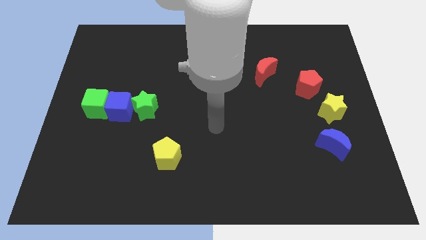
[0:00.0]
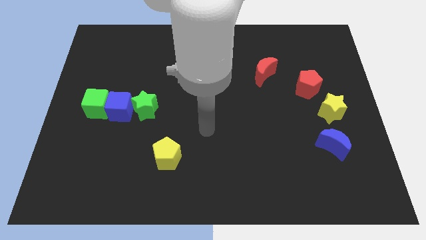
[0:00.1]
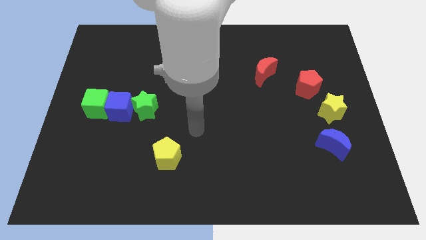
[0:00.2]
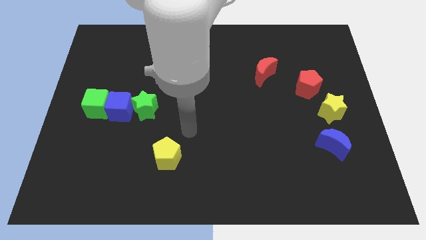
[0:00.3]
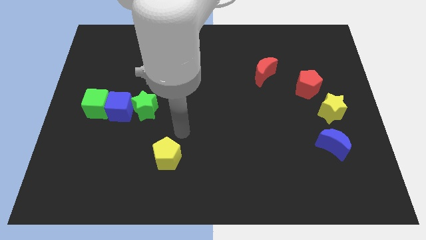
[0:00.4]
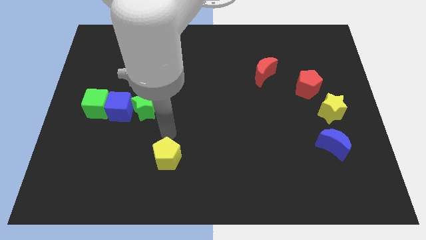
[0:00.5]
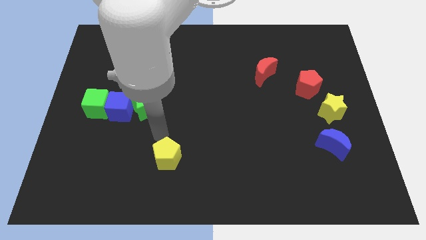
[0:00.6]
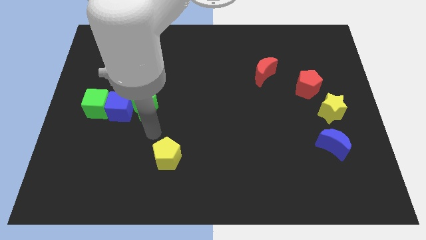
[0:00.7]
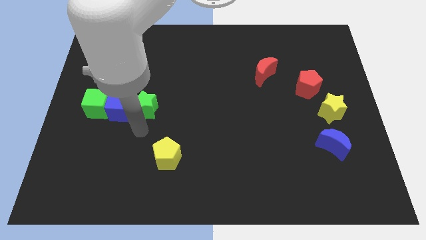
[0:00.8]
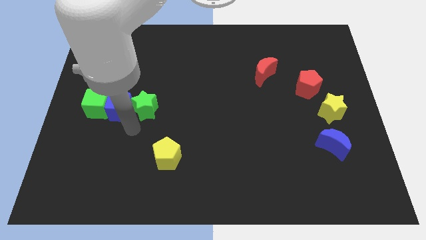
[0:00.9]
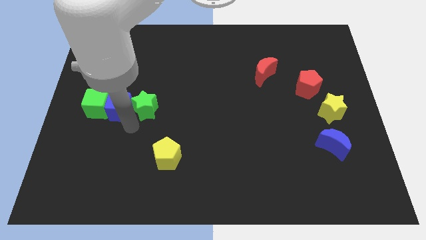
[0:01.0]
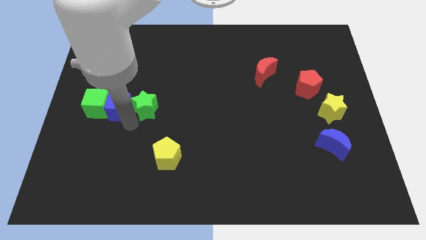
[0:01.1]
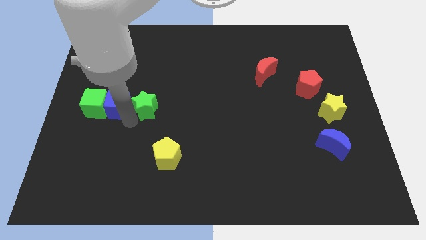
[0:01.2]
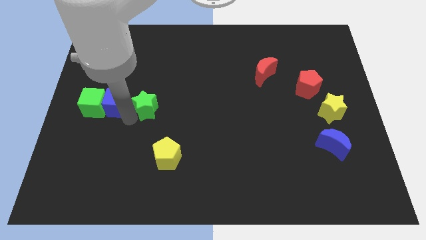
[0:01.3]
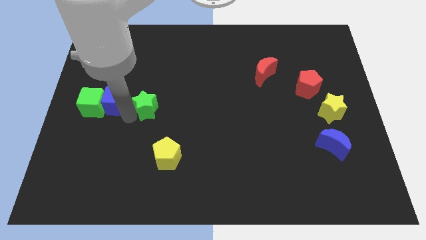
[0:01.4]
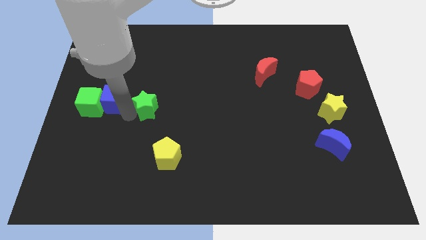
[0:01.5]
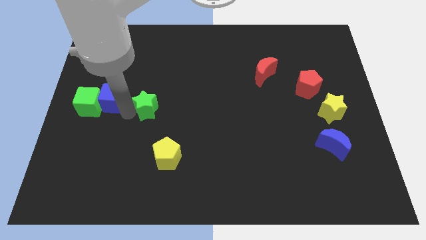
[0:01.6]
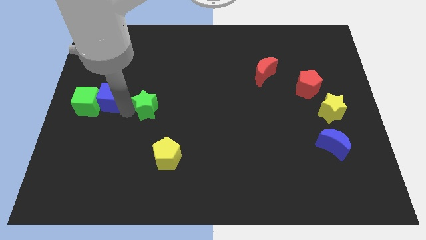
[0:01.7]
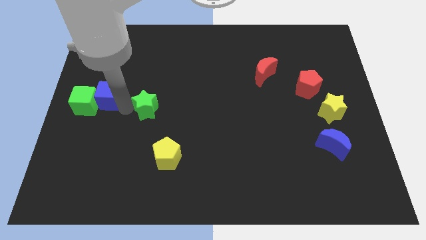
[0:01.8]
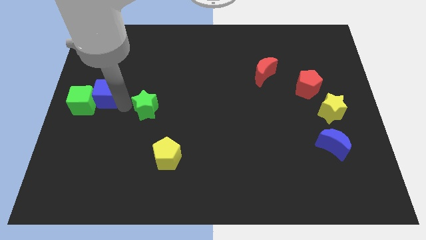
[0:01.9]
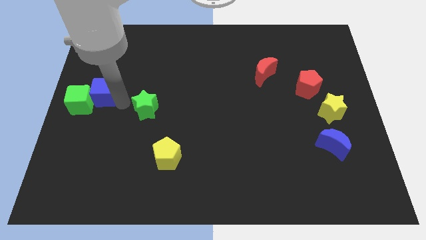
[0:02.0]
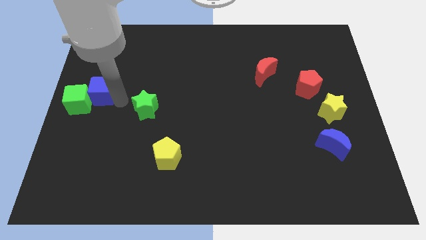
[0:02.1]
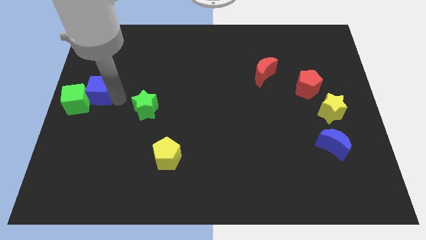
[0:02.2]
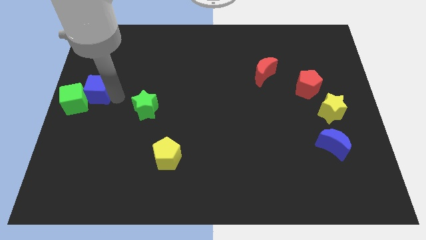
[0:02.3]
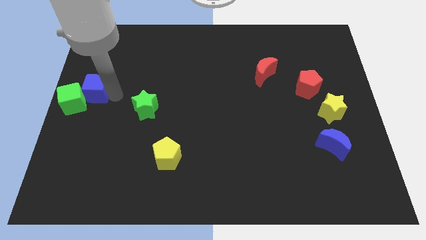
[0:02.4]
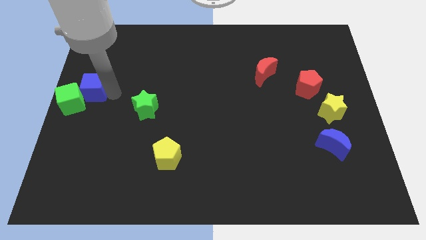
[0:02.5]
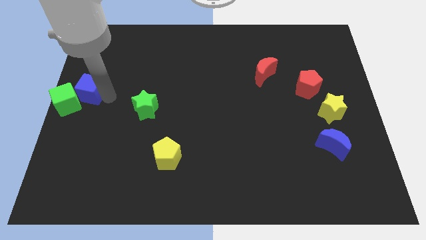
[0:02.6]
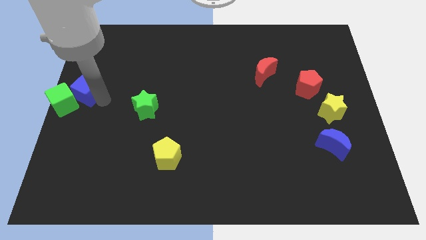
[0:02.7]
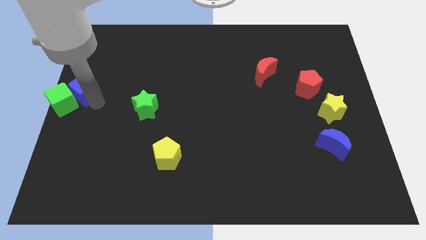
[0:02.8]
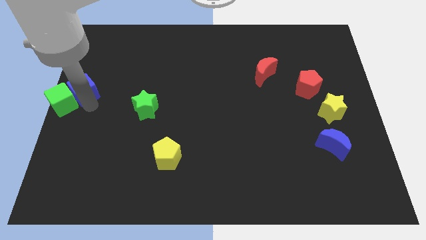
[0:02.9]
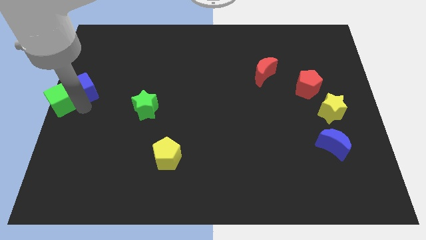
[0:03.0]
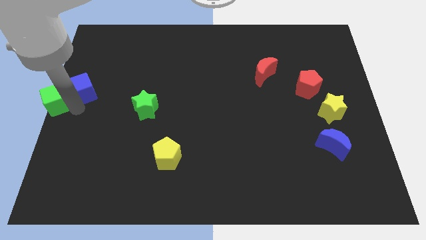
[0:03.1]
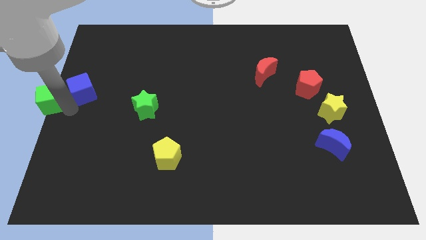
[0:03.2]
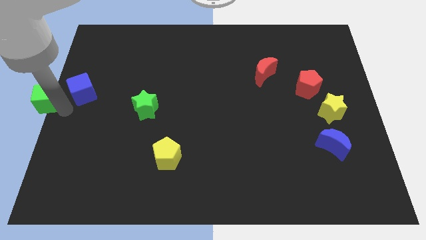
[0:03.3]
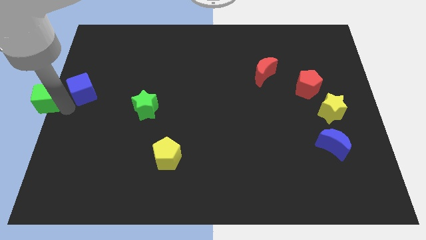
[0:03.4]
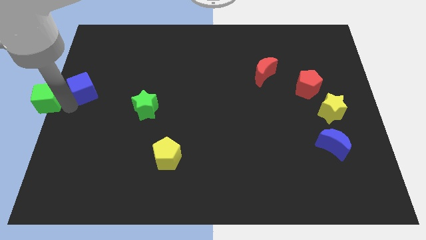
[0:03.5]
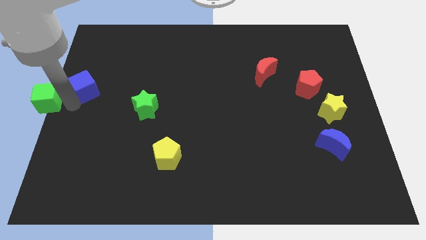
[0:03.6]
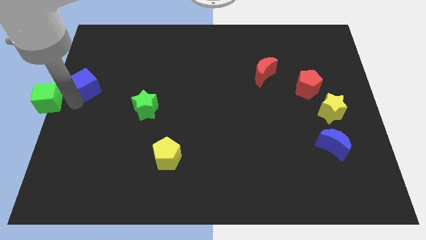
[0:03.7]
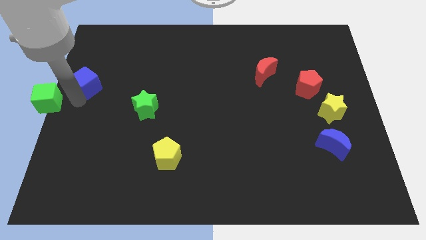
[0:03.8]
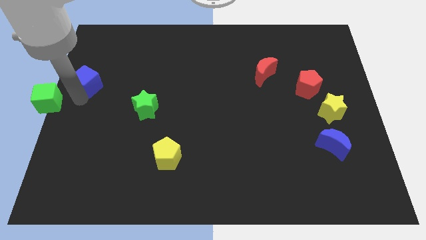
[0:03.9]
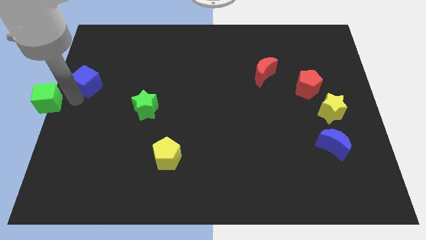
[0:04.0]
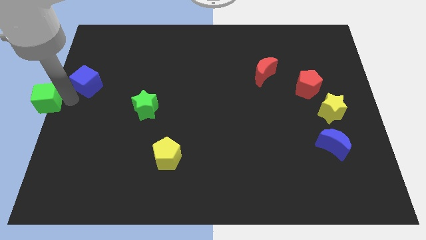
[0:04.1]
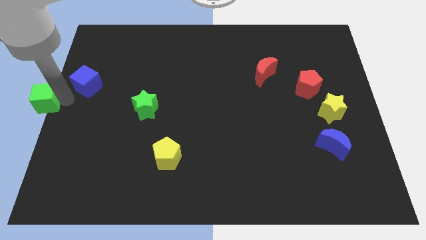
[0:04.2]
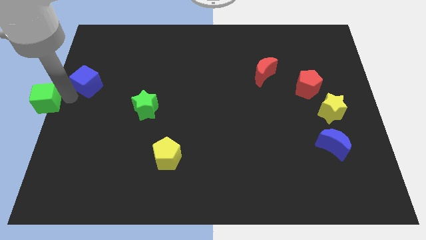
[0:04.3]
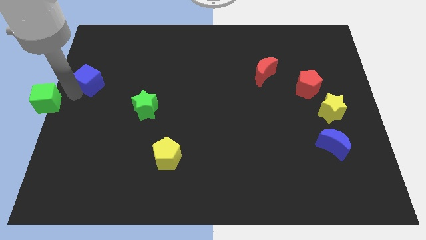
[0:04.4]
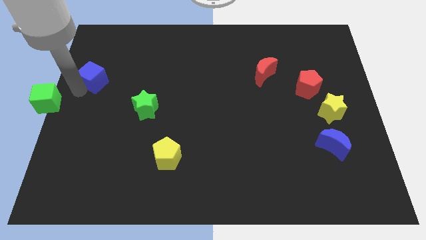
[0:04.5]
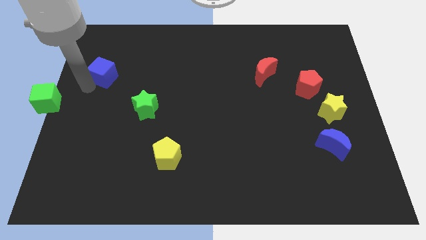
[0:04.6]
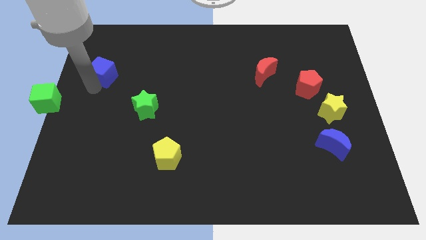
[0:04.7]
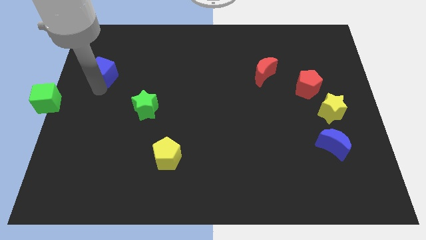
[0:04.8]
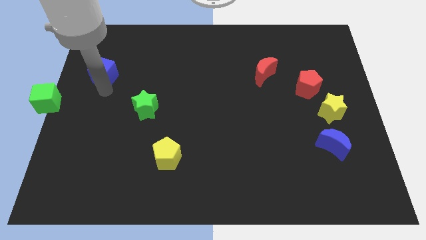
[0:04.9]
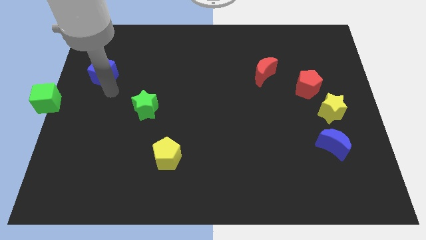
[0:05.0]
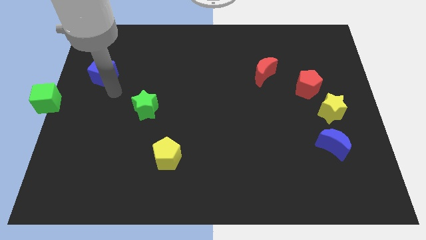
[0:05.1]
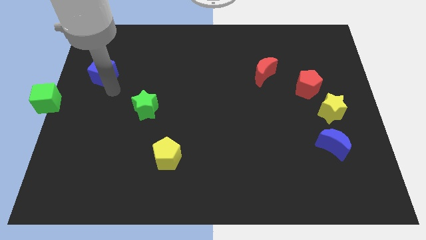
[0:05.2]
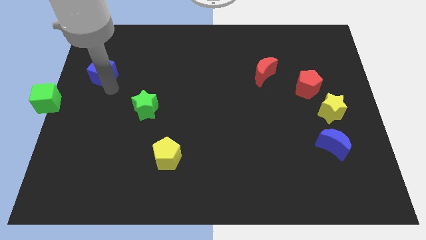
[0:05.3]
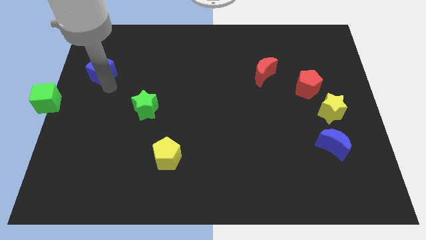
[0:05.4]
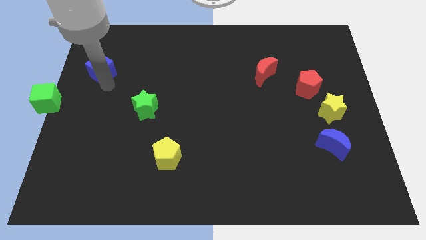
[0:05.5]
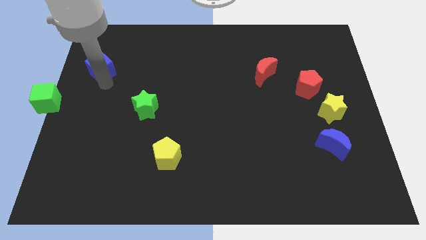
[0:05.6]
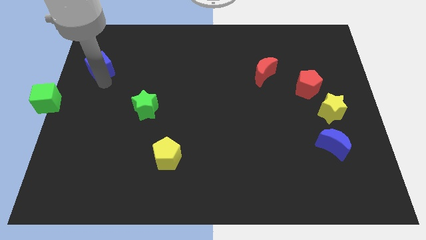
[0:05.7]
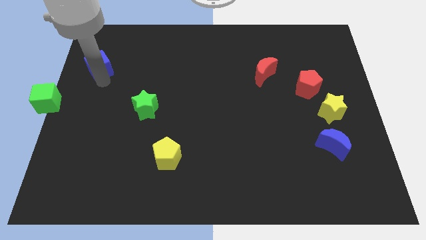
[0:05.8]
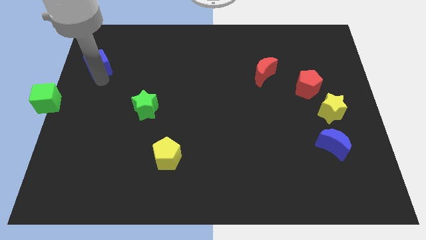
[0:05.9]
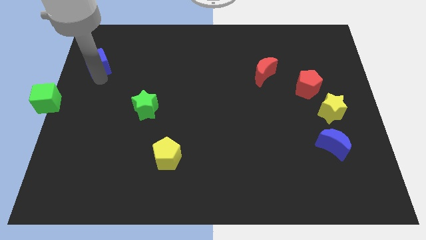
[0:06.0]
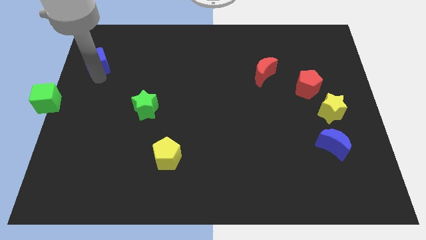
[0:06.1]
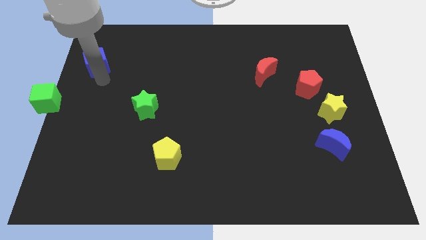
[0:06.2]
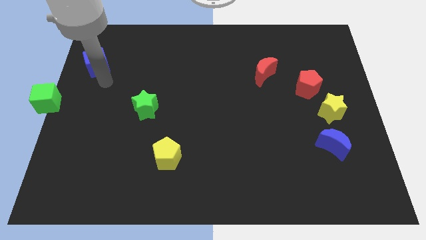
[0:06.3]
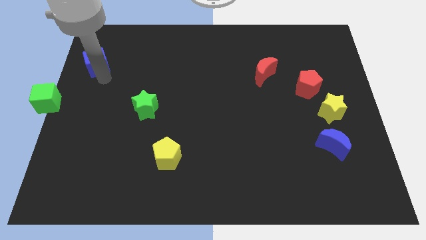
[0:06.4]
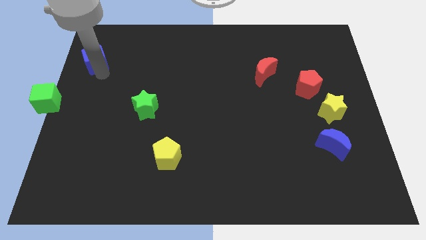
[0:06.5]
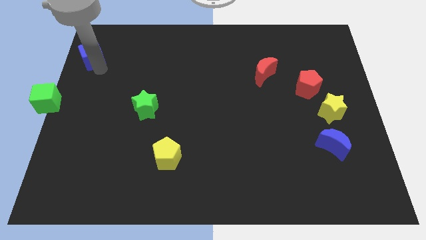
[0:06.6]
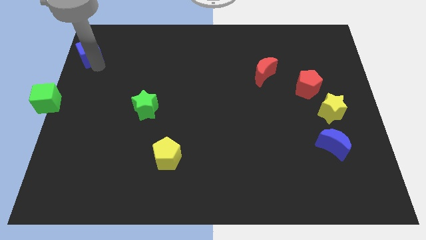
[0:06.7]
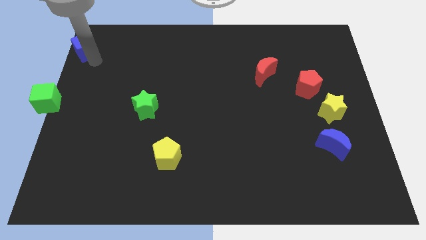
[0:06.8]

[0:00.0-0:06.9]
put the blue cube to the top left

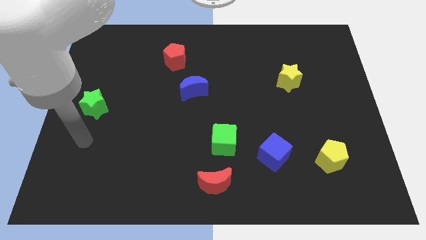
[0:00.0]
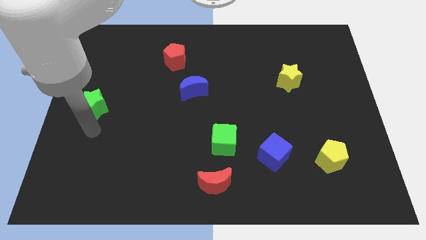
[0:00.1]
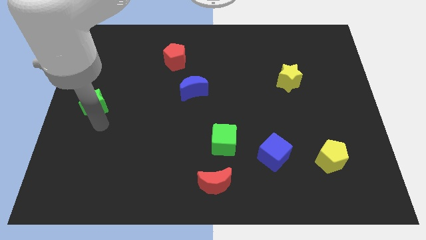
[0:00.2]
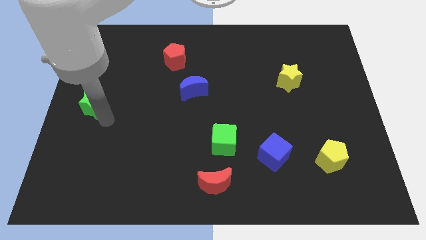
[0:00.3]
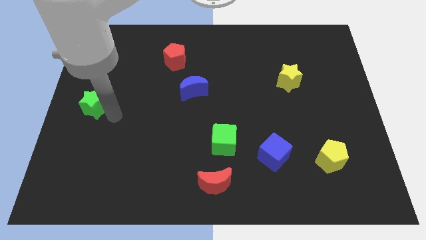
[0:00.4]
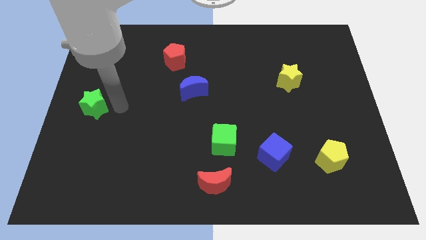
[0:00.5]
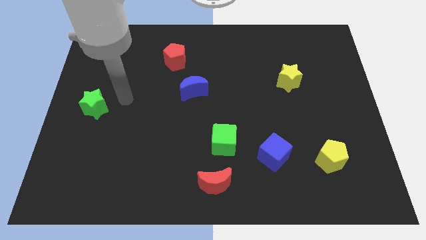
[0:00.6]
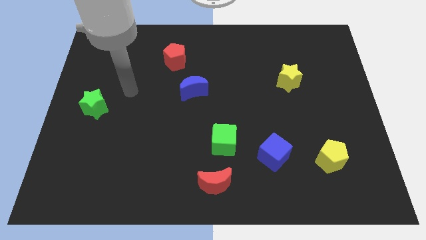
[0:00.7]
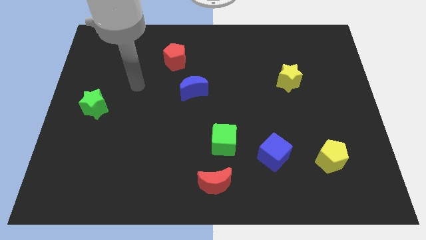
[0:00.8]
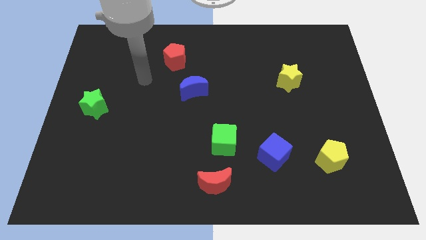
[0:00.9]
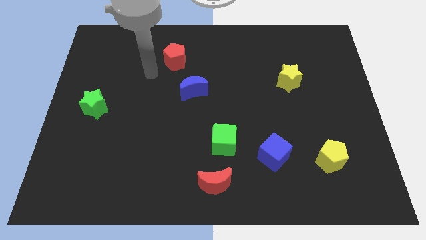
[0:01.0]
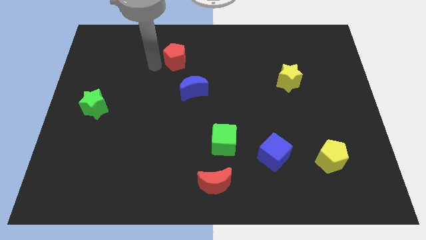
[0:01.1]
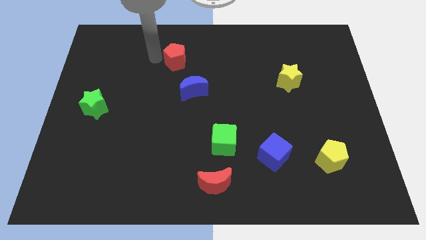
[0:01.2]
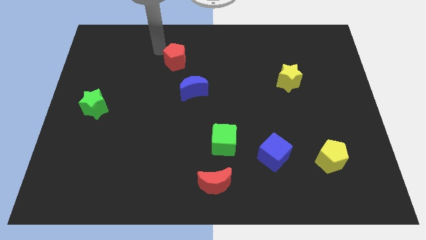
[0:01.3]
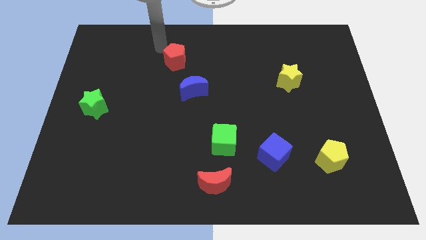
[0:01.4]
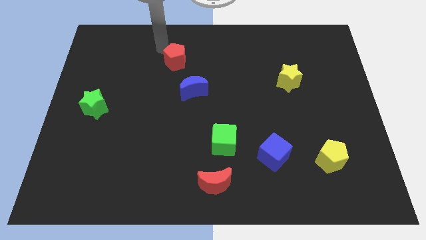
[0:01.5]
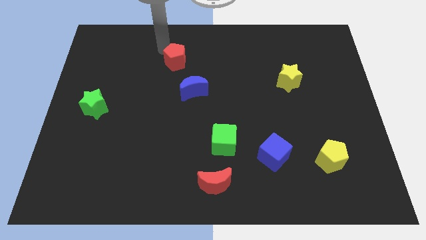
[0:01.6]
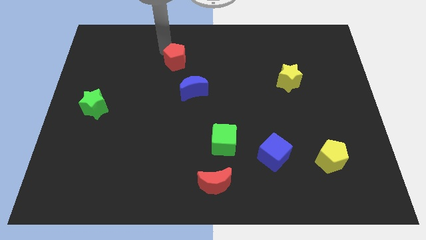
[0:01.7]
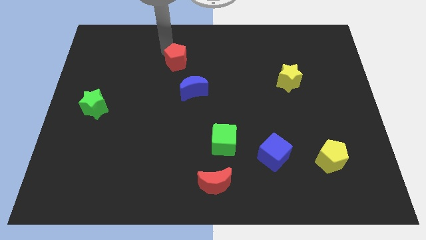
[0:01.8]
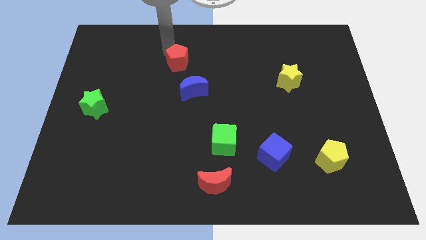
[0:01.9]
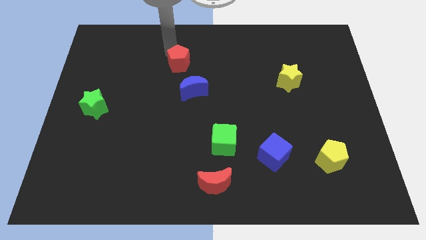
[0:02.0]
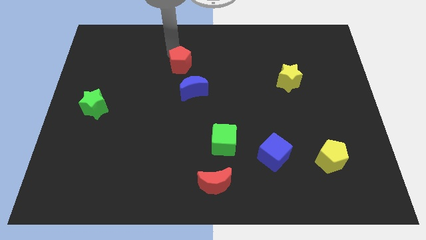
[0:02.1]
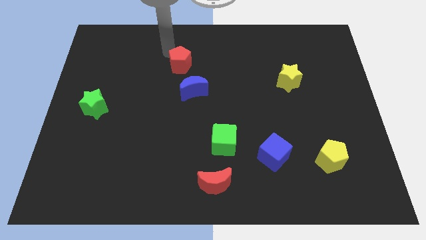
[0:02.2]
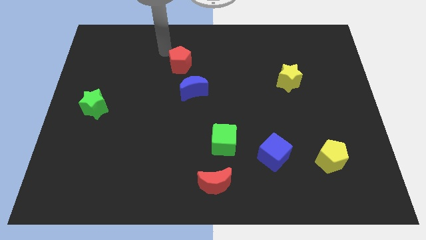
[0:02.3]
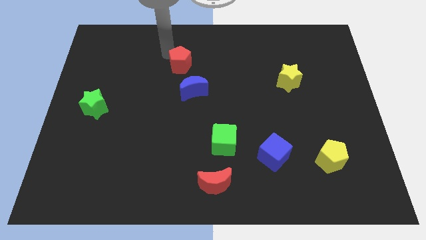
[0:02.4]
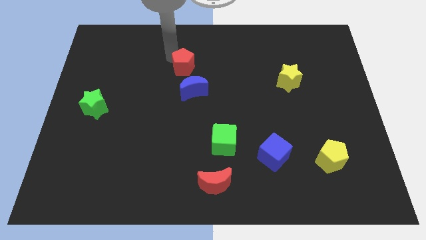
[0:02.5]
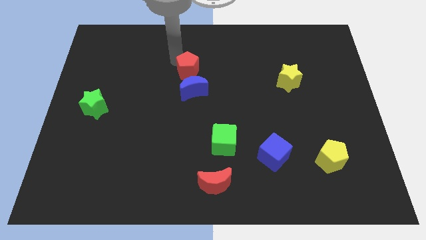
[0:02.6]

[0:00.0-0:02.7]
push the red pentagon to the middle
